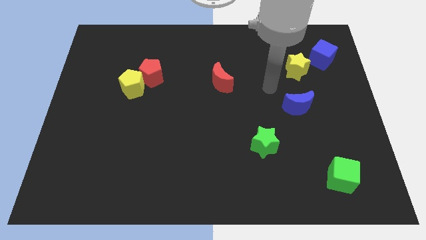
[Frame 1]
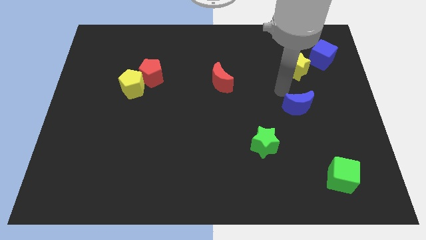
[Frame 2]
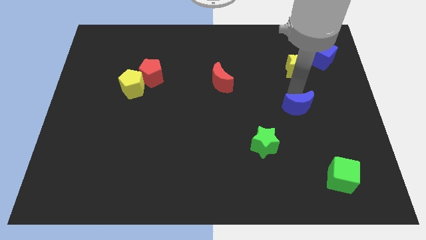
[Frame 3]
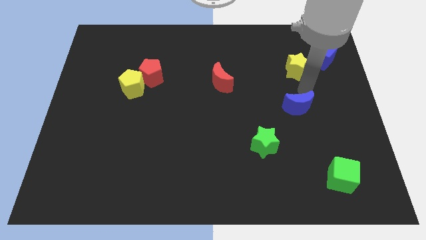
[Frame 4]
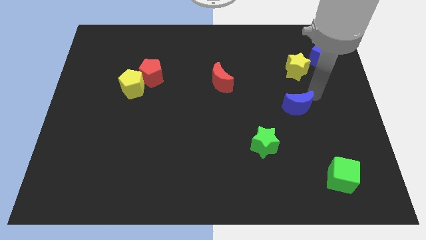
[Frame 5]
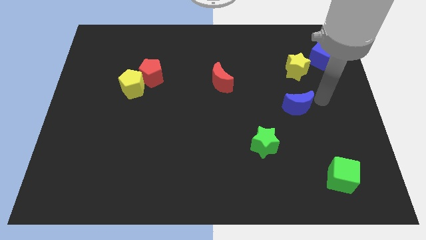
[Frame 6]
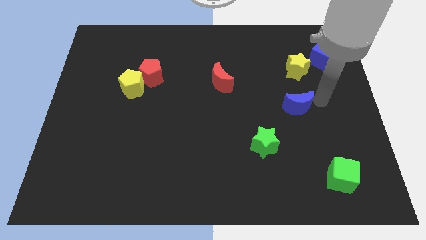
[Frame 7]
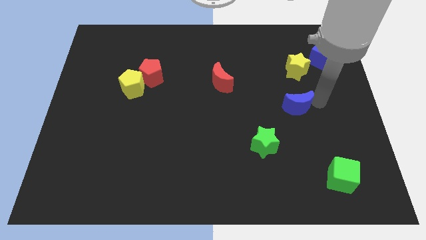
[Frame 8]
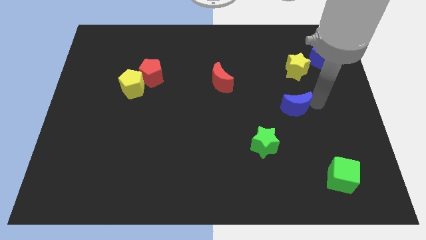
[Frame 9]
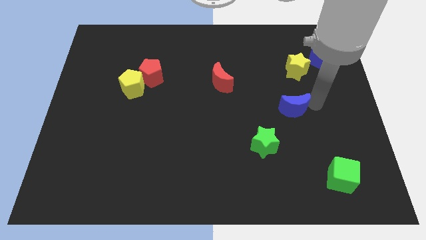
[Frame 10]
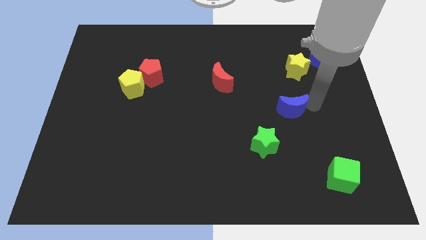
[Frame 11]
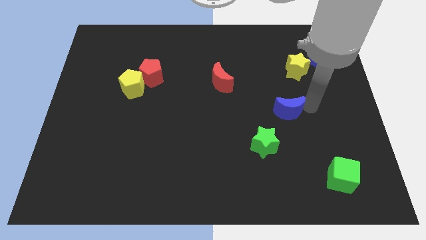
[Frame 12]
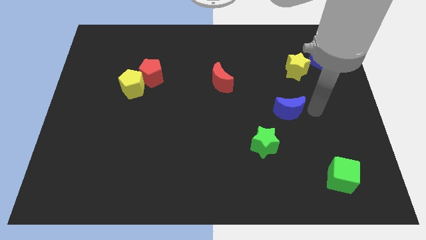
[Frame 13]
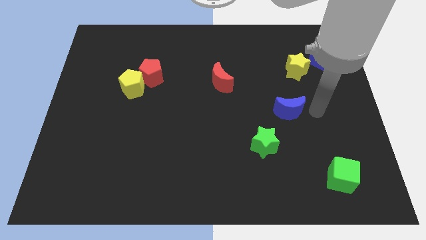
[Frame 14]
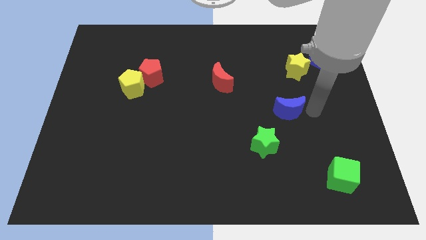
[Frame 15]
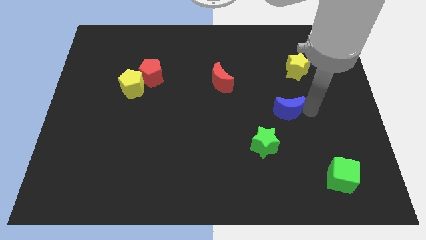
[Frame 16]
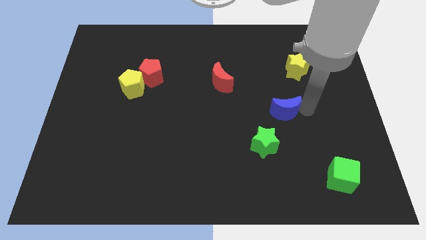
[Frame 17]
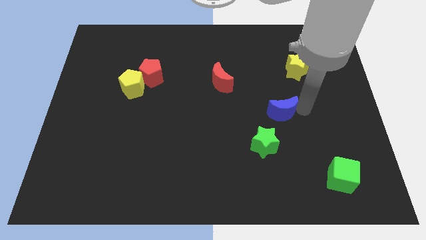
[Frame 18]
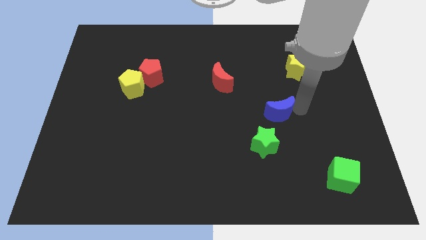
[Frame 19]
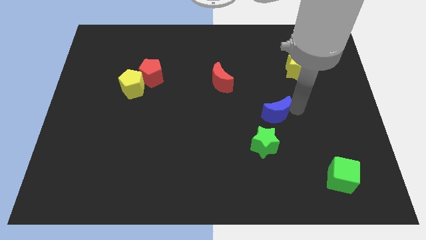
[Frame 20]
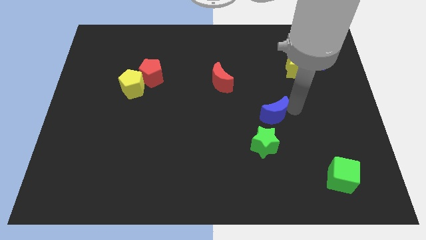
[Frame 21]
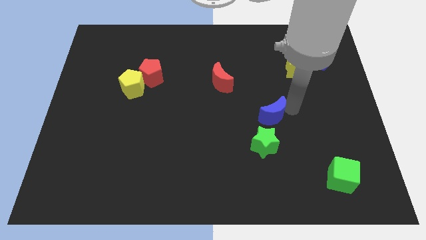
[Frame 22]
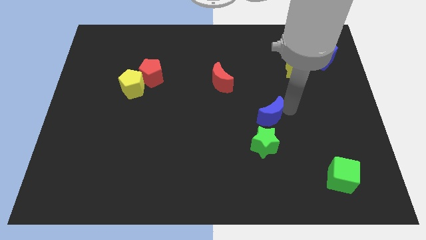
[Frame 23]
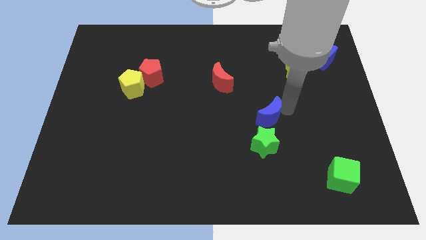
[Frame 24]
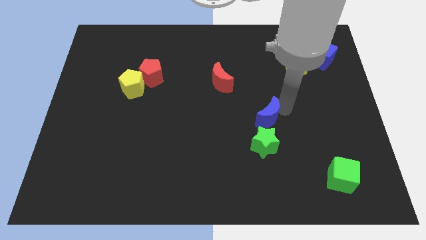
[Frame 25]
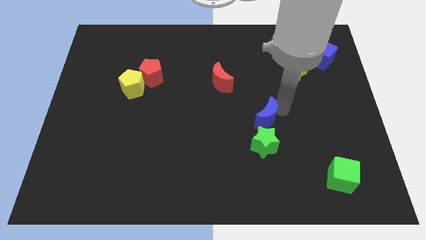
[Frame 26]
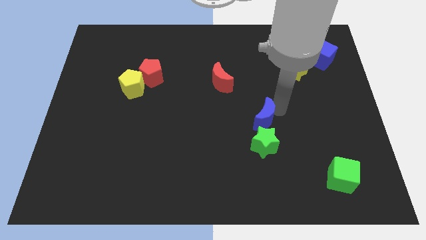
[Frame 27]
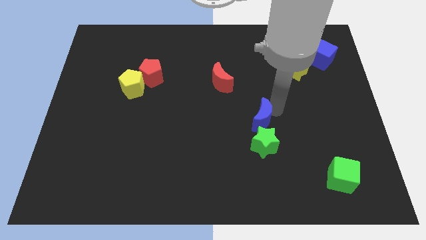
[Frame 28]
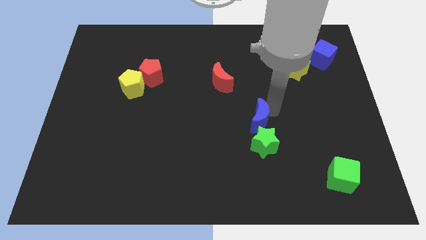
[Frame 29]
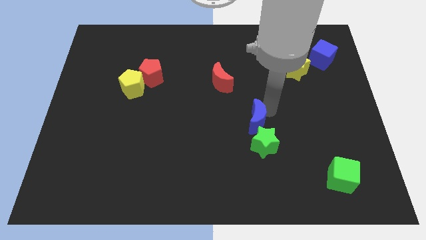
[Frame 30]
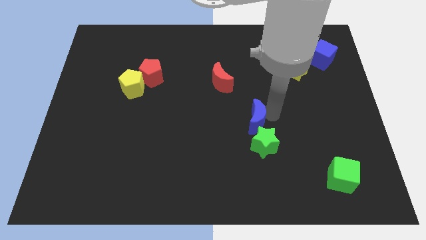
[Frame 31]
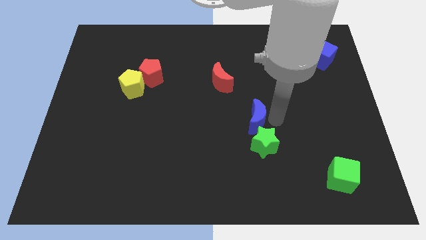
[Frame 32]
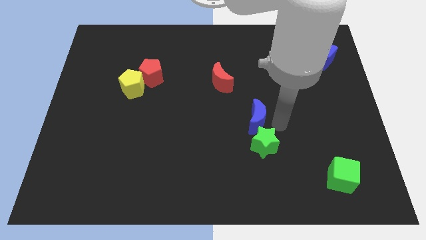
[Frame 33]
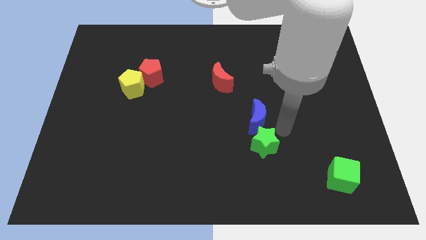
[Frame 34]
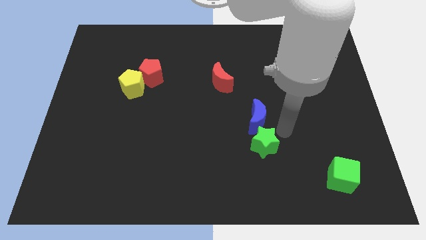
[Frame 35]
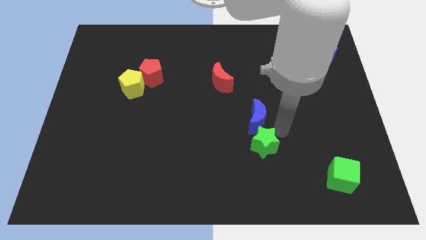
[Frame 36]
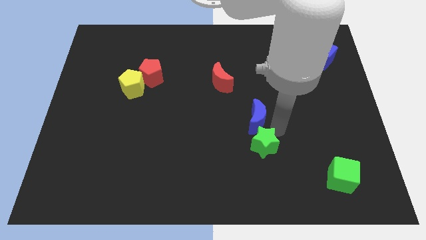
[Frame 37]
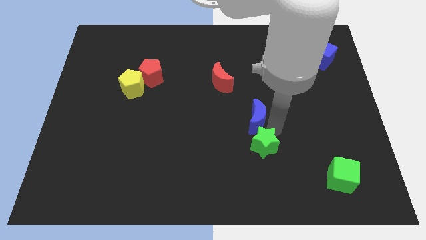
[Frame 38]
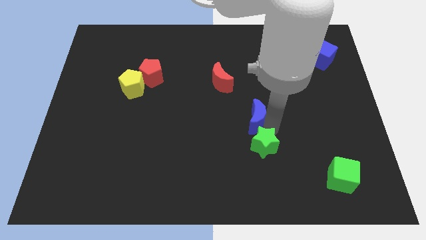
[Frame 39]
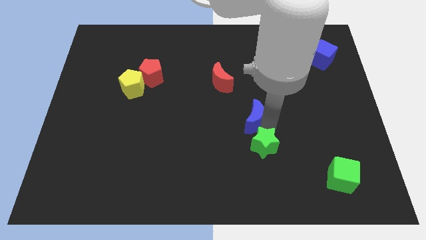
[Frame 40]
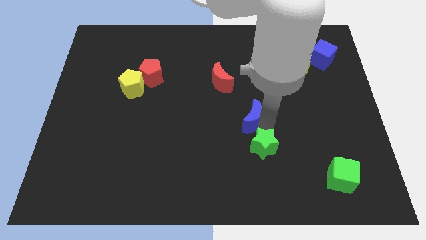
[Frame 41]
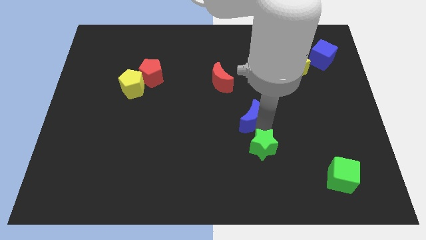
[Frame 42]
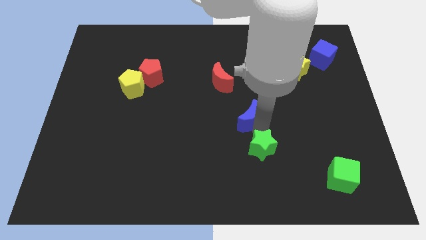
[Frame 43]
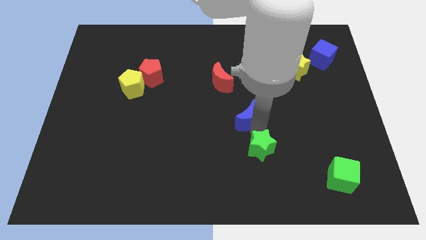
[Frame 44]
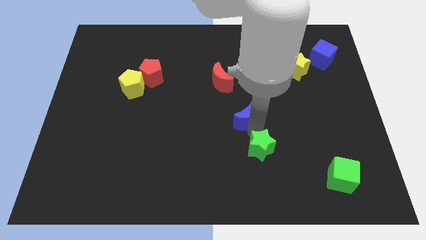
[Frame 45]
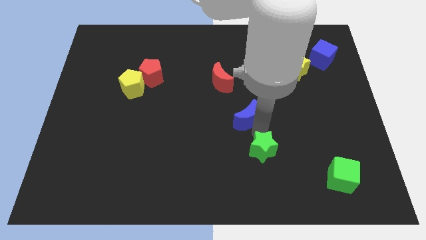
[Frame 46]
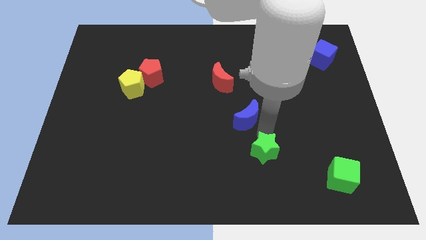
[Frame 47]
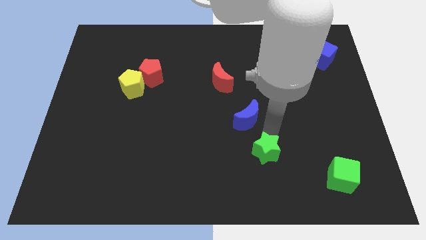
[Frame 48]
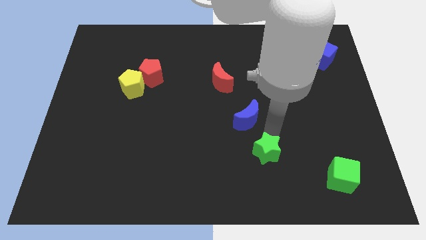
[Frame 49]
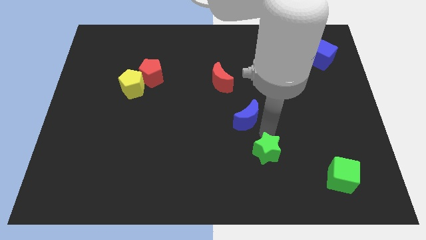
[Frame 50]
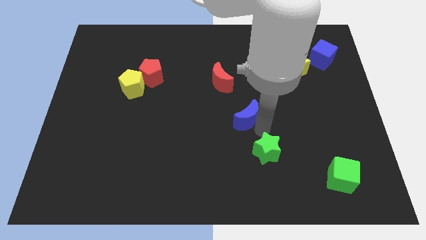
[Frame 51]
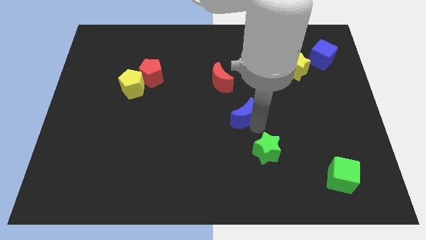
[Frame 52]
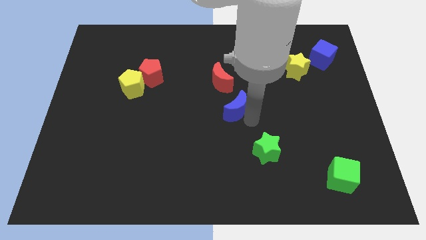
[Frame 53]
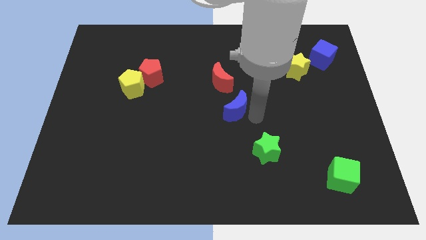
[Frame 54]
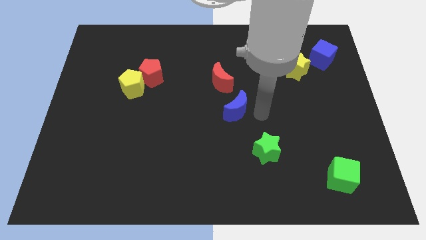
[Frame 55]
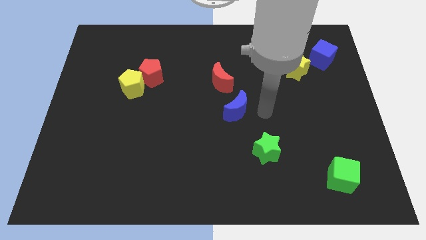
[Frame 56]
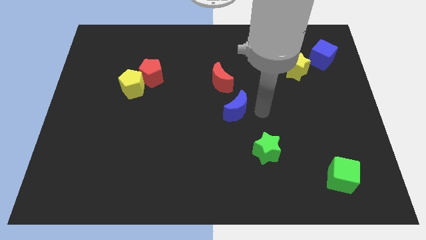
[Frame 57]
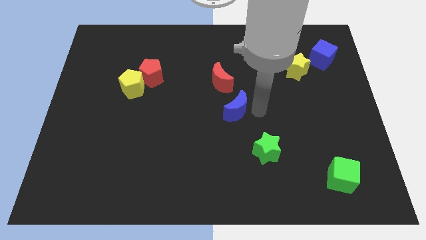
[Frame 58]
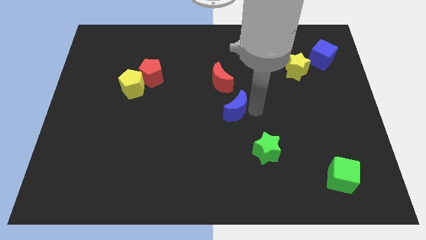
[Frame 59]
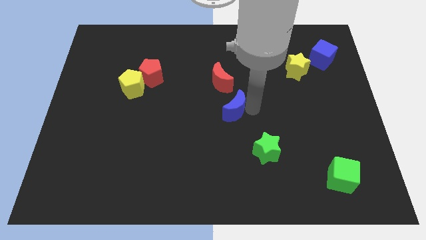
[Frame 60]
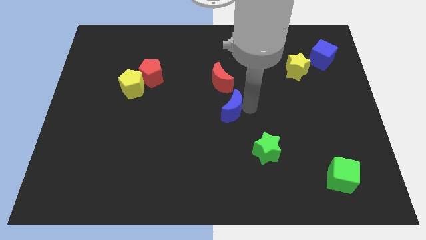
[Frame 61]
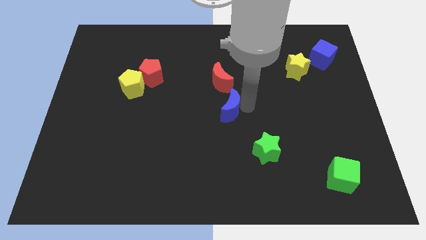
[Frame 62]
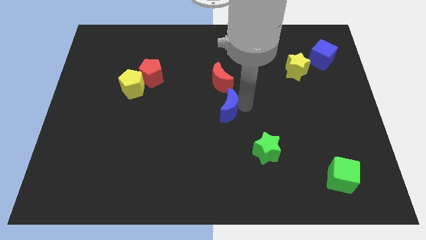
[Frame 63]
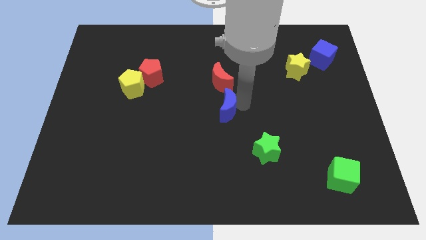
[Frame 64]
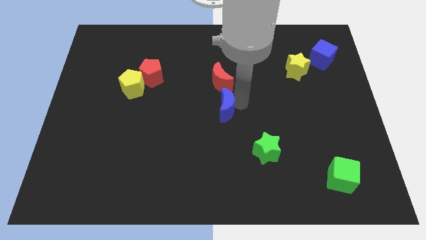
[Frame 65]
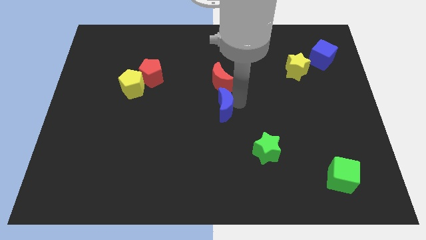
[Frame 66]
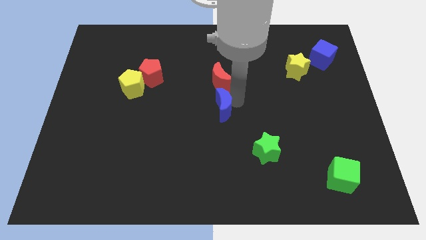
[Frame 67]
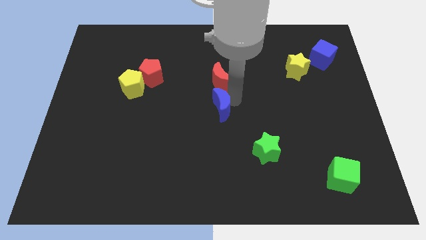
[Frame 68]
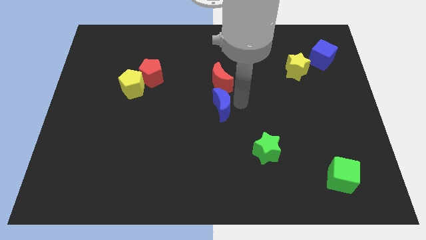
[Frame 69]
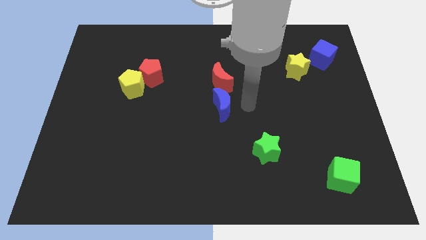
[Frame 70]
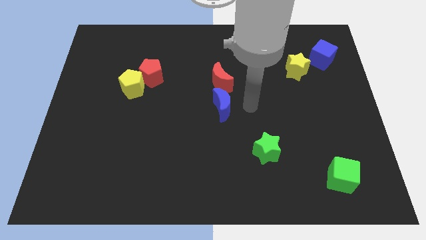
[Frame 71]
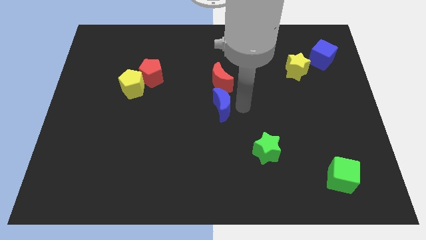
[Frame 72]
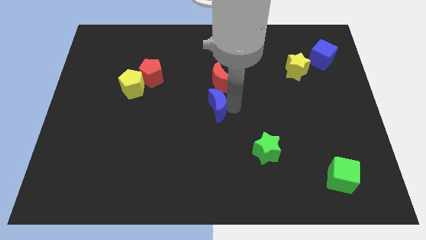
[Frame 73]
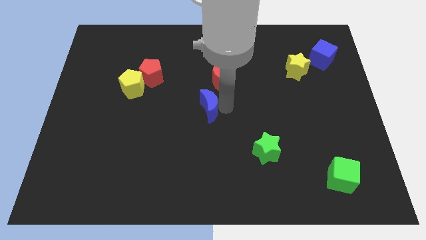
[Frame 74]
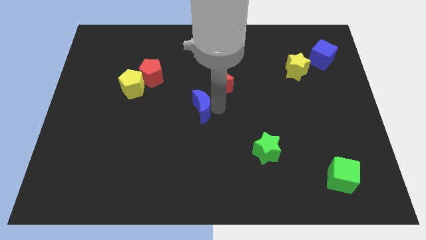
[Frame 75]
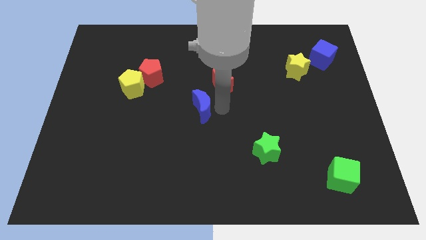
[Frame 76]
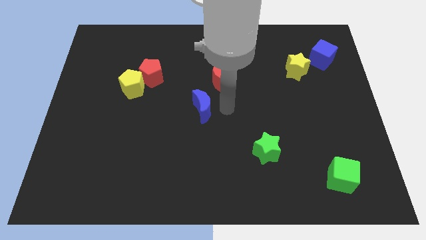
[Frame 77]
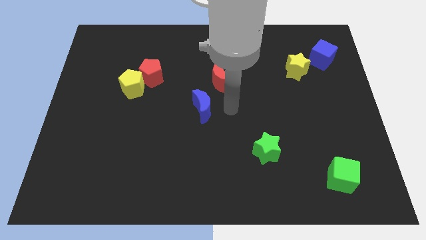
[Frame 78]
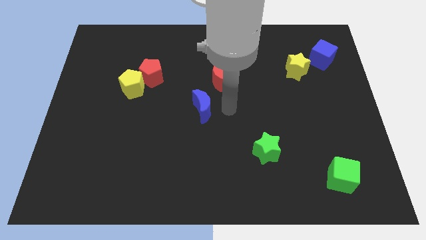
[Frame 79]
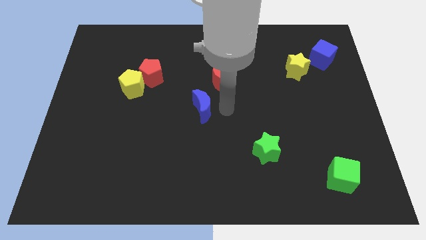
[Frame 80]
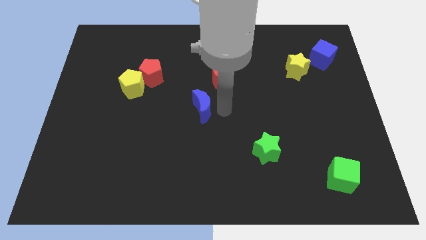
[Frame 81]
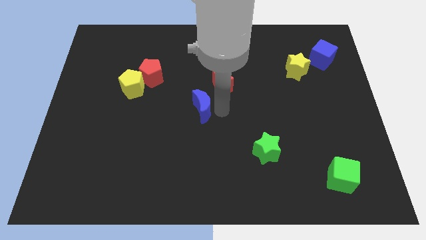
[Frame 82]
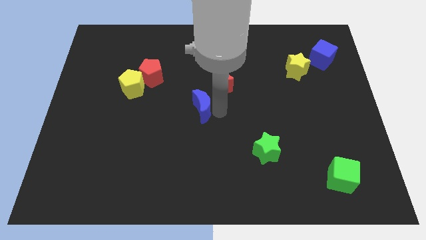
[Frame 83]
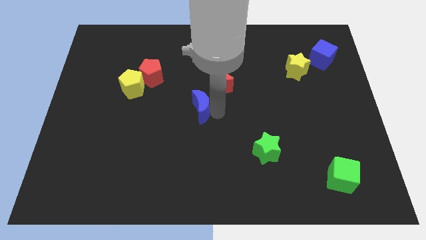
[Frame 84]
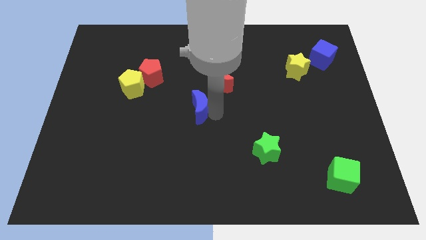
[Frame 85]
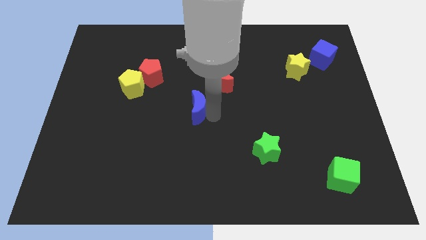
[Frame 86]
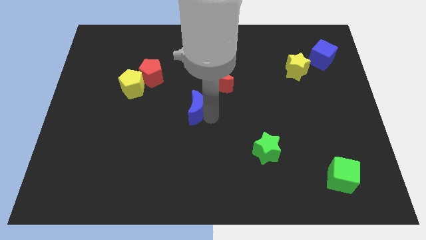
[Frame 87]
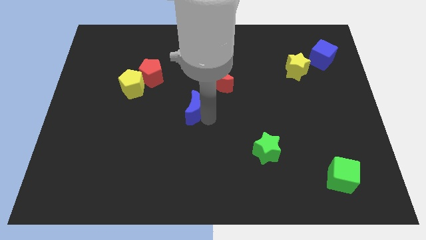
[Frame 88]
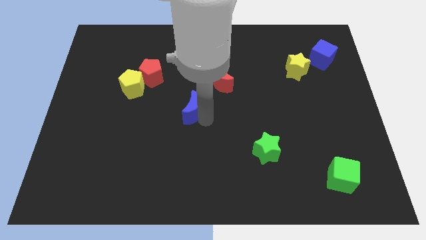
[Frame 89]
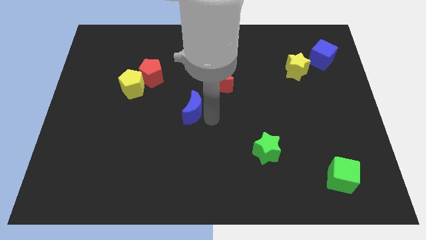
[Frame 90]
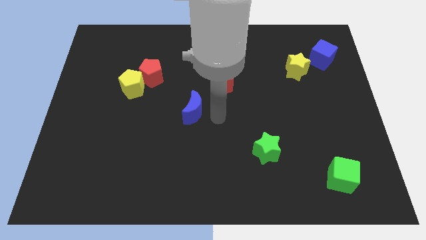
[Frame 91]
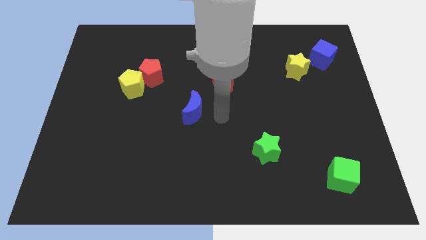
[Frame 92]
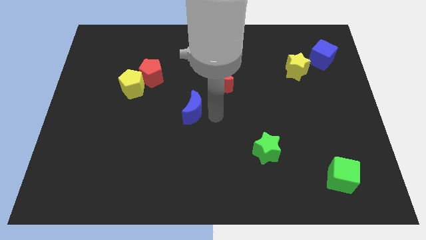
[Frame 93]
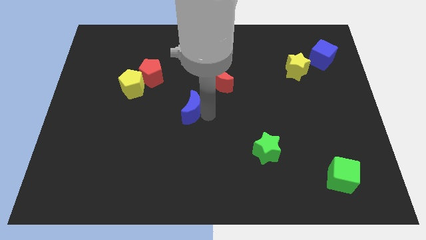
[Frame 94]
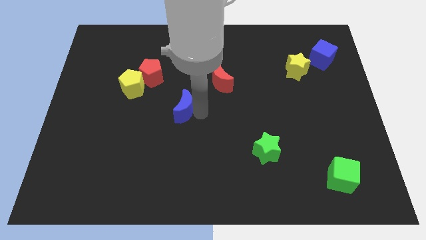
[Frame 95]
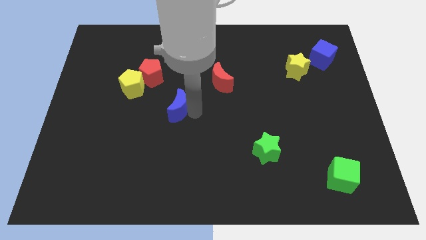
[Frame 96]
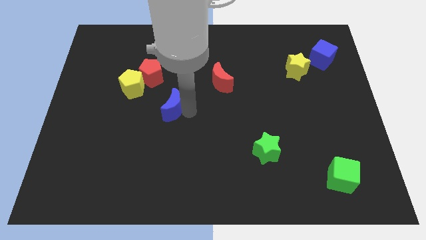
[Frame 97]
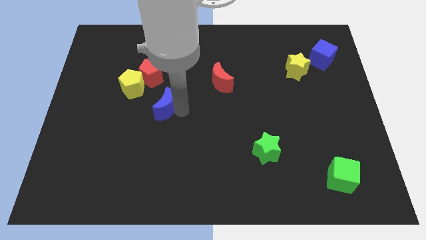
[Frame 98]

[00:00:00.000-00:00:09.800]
move the blue moon to the bottom right of the yellow pentagon
